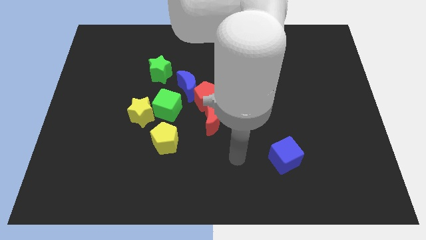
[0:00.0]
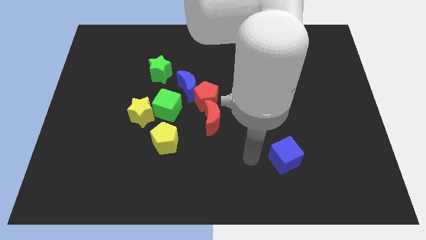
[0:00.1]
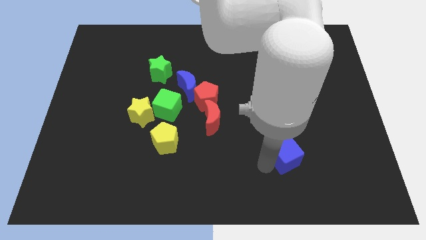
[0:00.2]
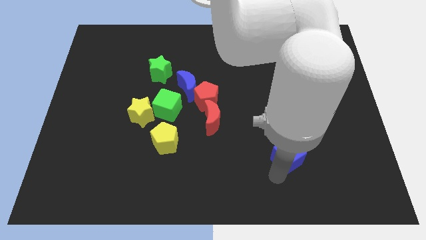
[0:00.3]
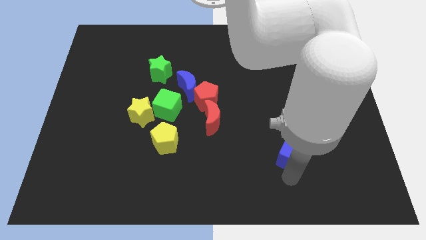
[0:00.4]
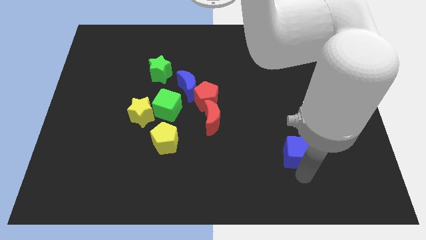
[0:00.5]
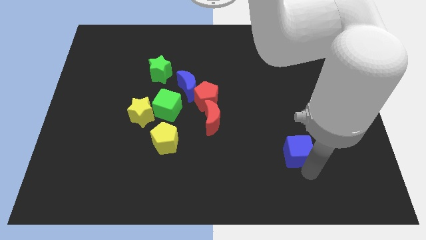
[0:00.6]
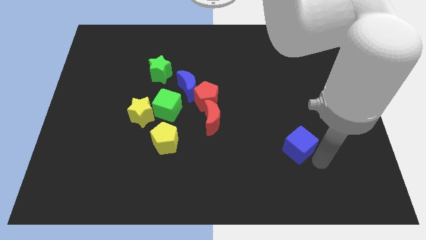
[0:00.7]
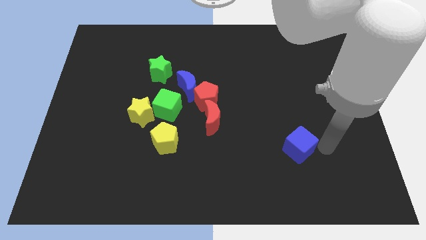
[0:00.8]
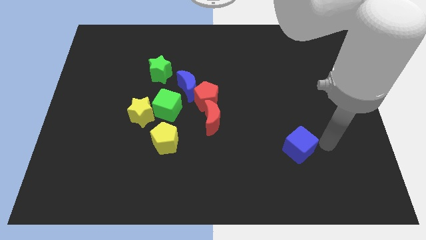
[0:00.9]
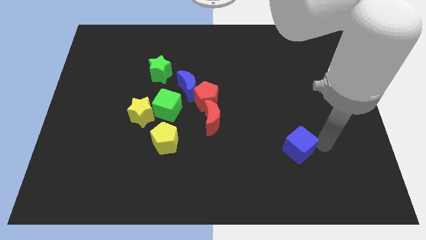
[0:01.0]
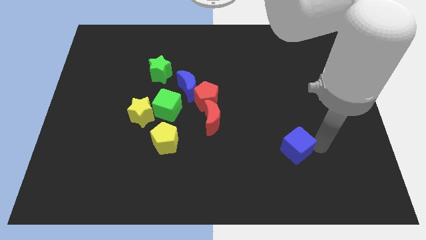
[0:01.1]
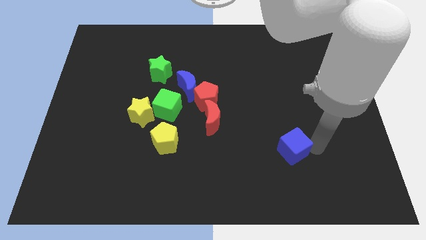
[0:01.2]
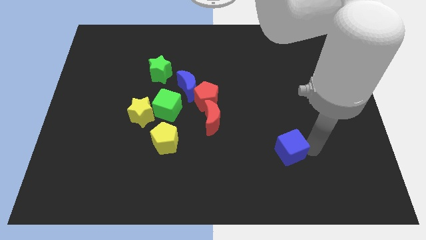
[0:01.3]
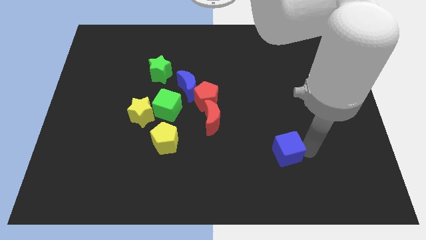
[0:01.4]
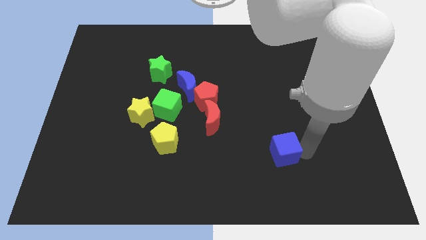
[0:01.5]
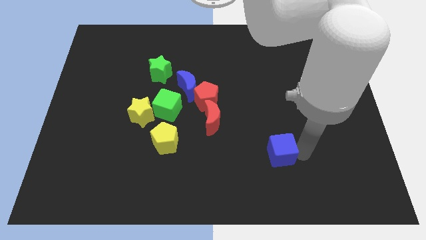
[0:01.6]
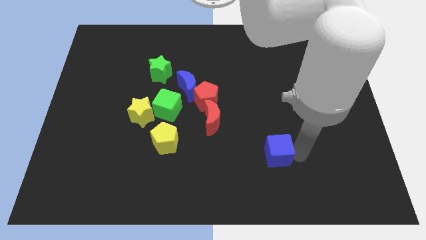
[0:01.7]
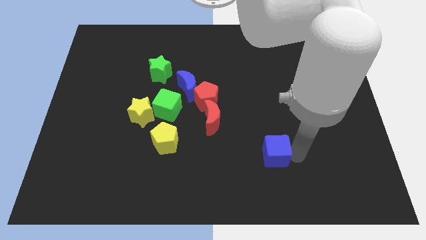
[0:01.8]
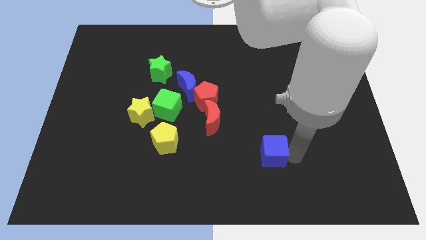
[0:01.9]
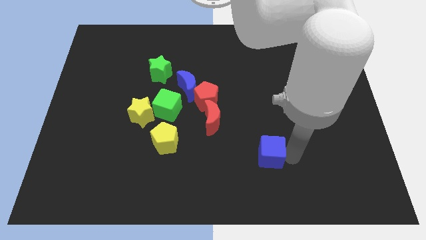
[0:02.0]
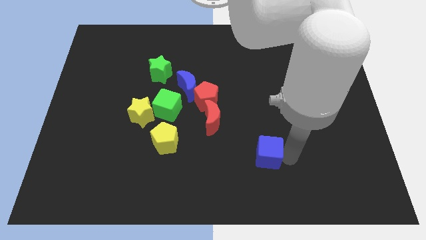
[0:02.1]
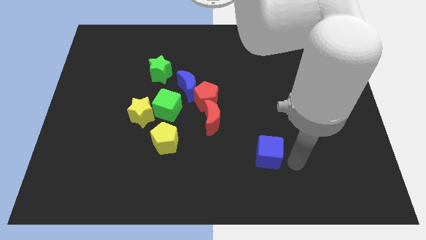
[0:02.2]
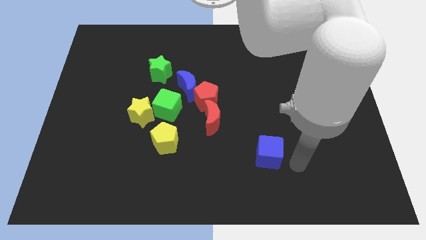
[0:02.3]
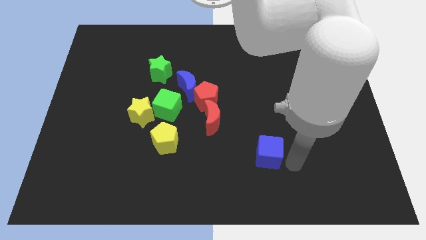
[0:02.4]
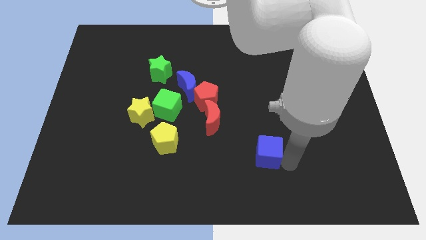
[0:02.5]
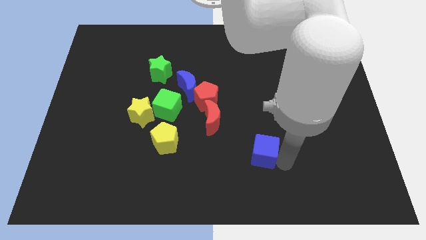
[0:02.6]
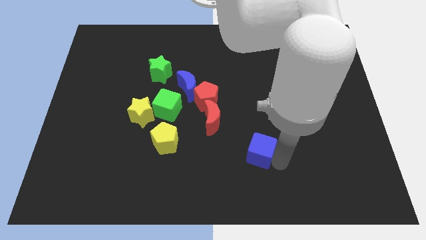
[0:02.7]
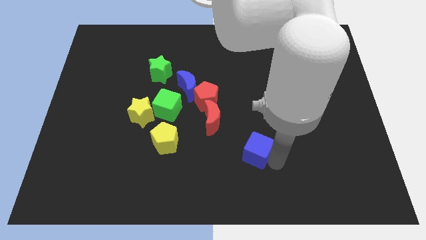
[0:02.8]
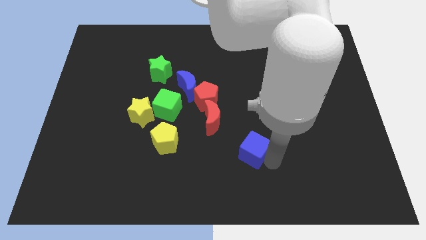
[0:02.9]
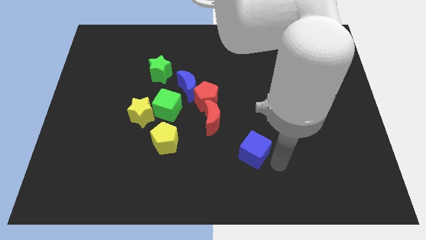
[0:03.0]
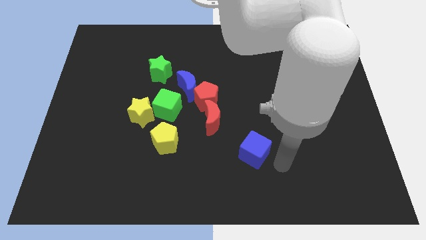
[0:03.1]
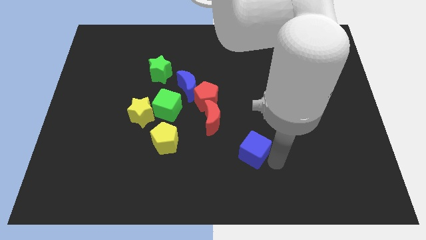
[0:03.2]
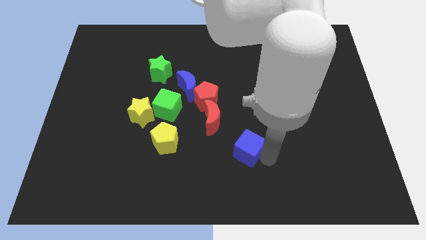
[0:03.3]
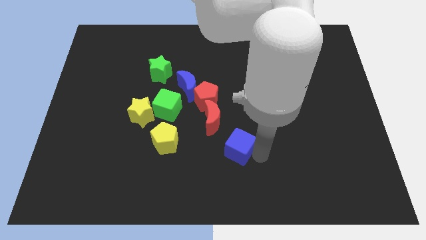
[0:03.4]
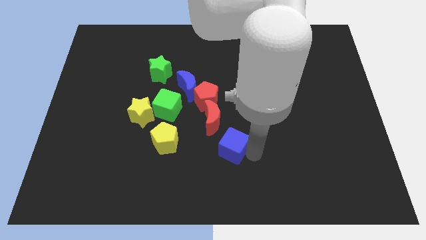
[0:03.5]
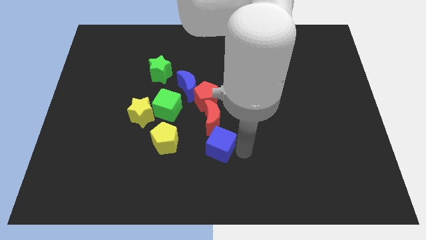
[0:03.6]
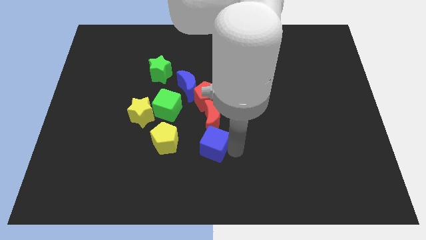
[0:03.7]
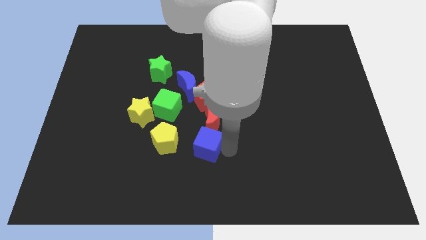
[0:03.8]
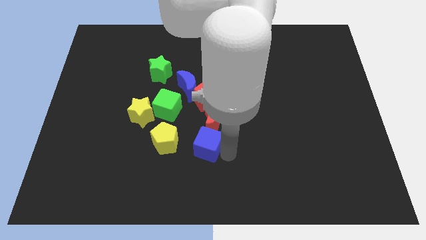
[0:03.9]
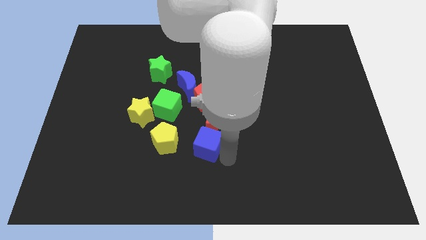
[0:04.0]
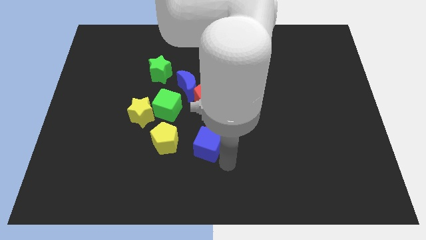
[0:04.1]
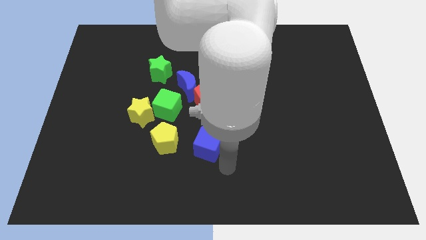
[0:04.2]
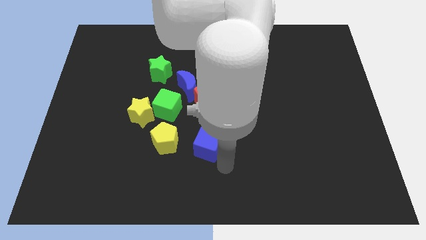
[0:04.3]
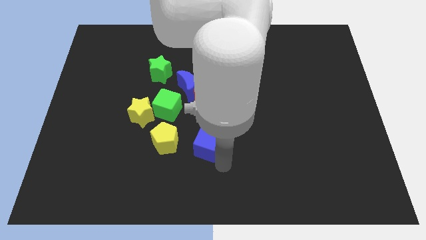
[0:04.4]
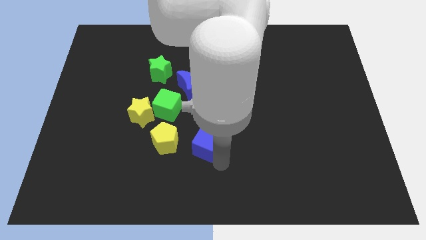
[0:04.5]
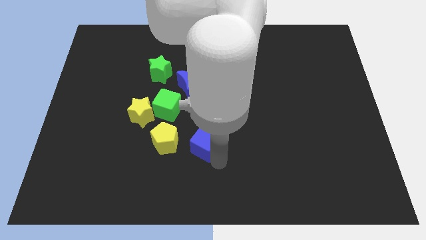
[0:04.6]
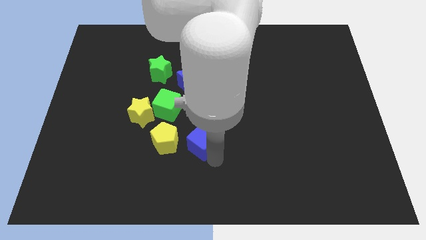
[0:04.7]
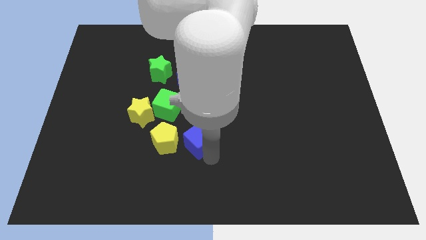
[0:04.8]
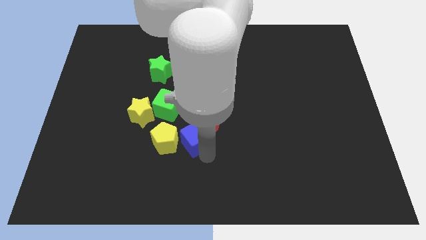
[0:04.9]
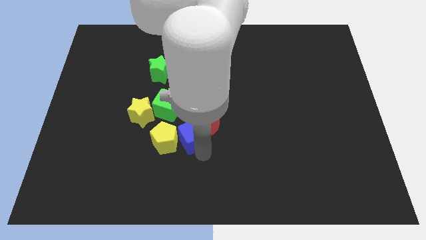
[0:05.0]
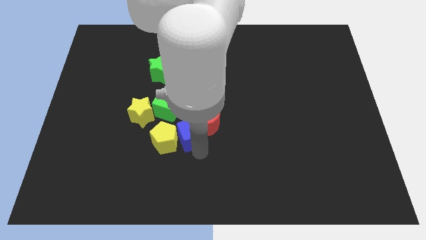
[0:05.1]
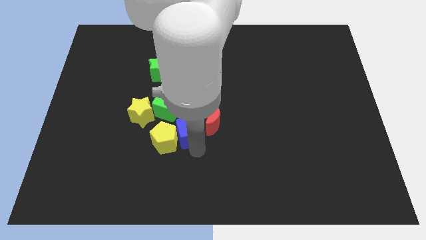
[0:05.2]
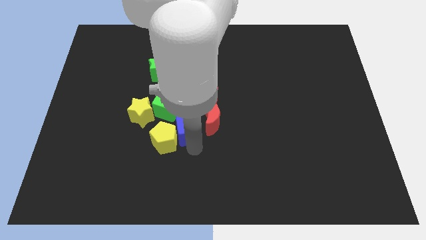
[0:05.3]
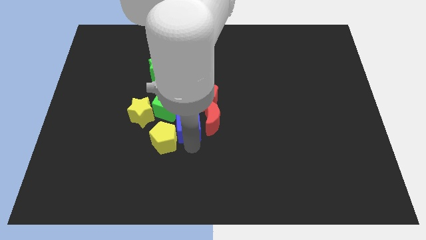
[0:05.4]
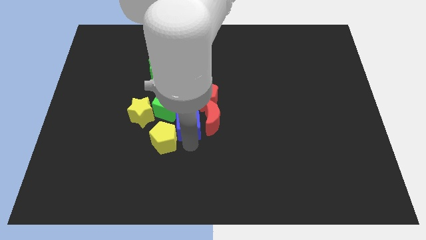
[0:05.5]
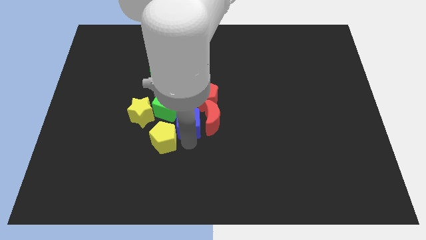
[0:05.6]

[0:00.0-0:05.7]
put the blue cube to the top left of the red moon
